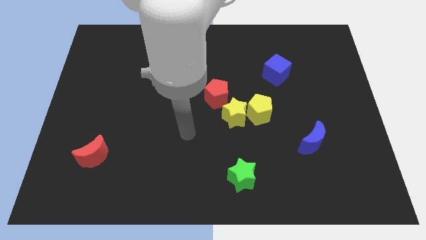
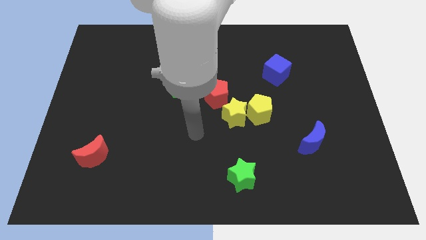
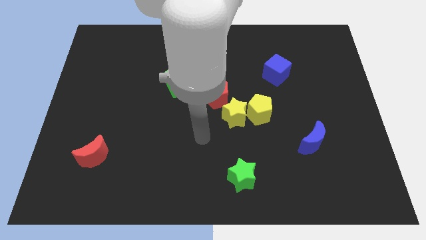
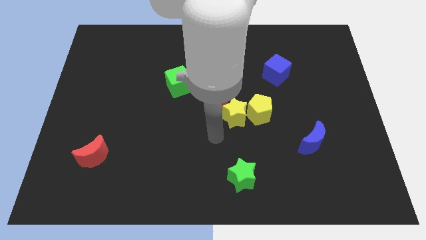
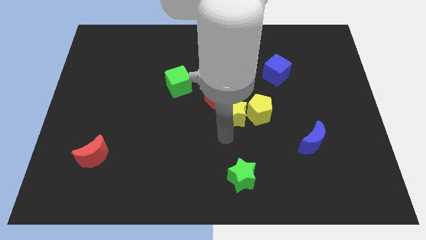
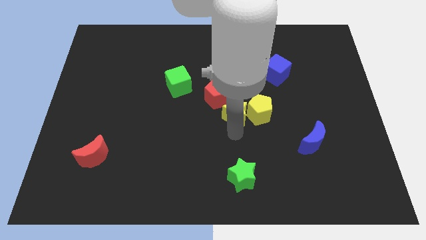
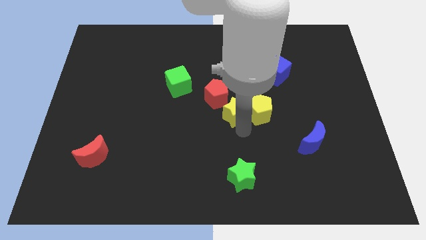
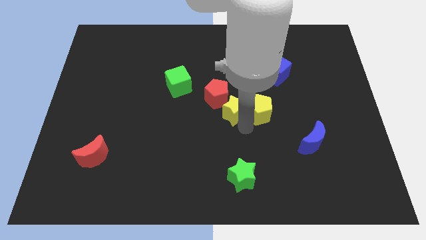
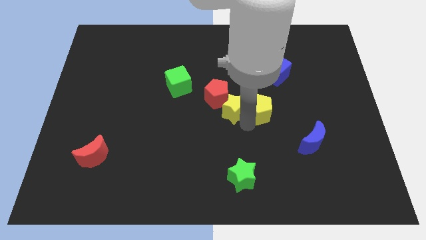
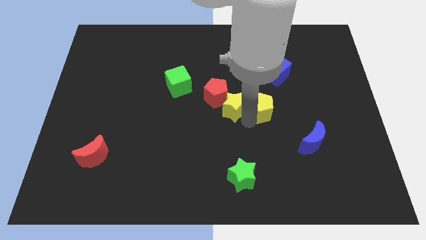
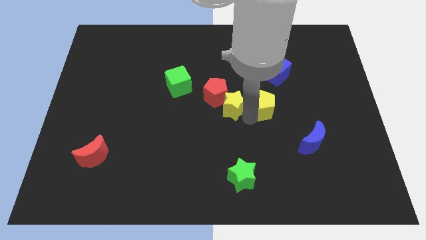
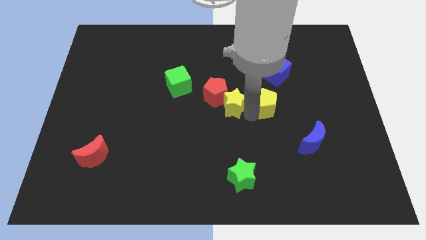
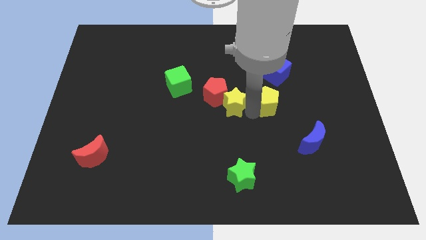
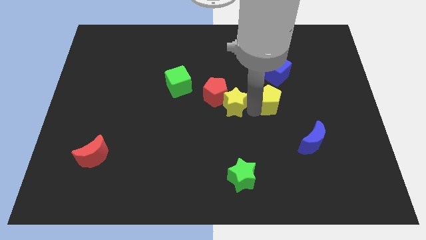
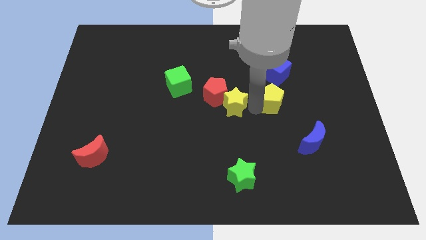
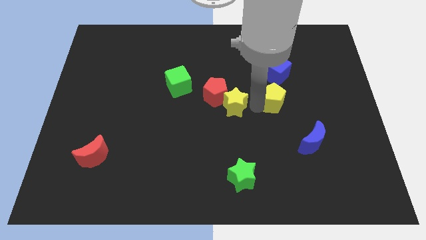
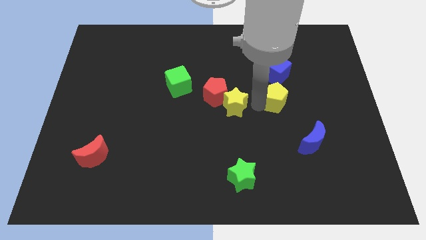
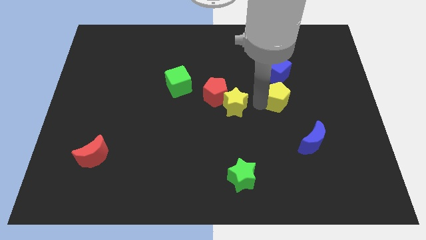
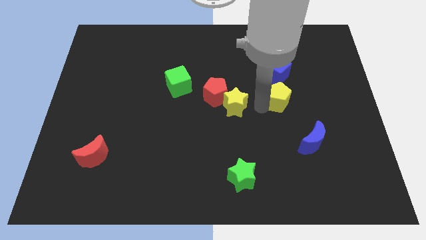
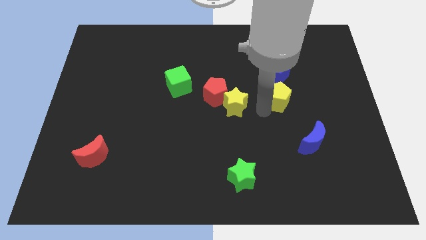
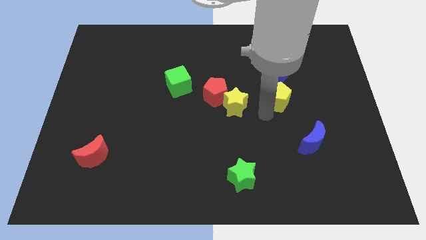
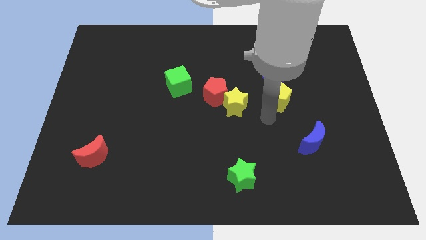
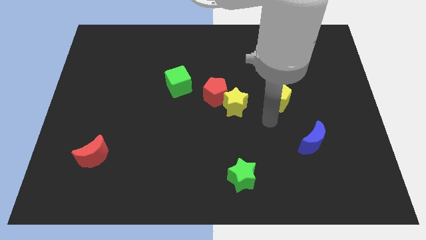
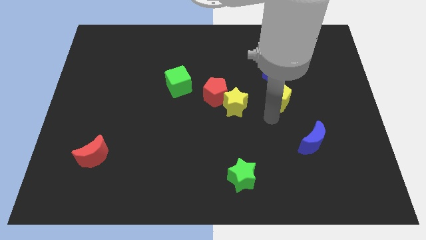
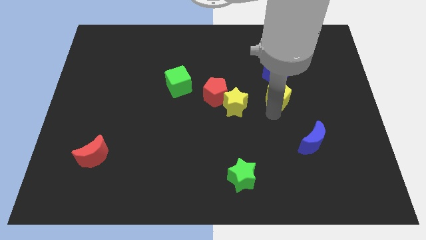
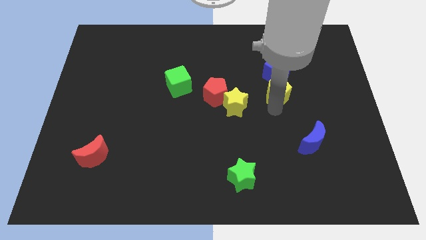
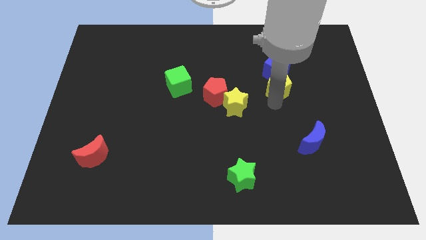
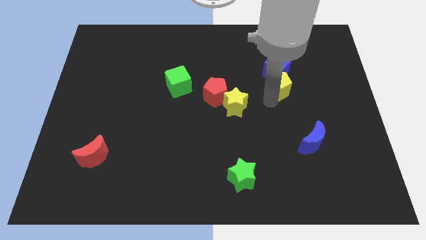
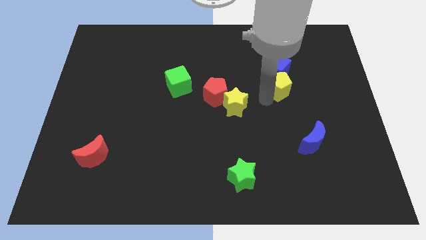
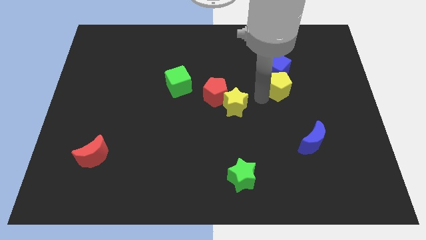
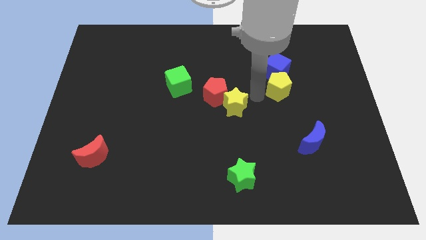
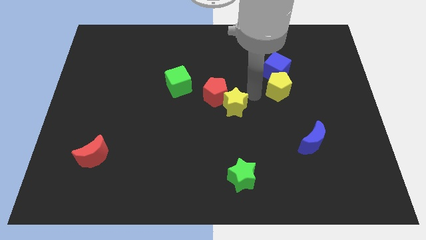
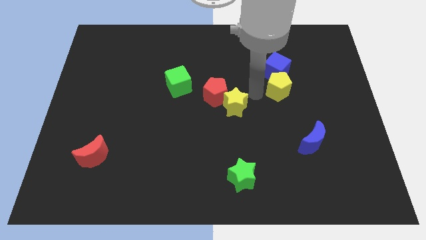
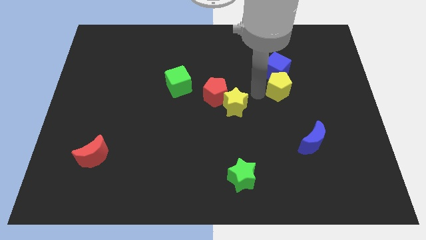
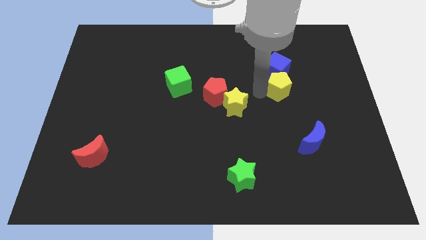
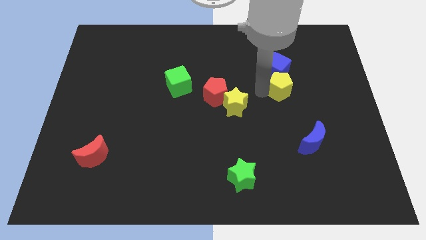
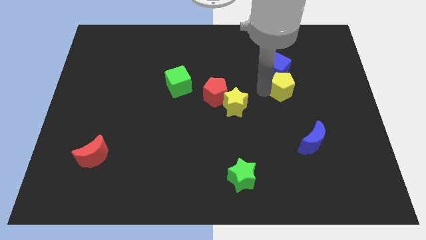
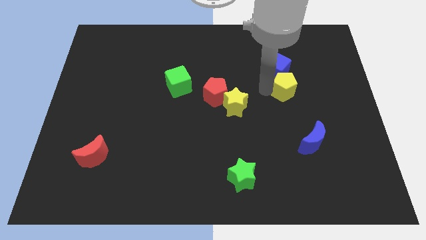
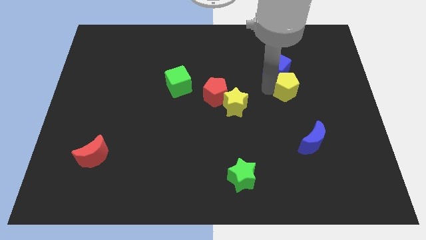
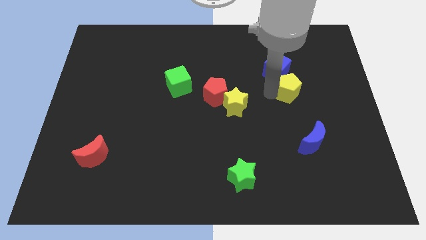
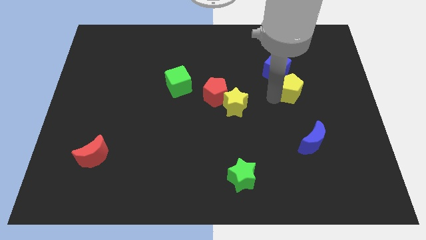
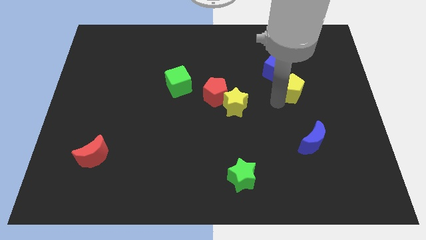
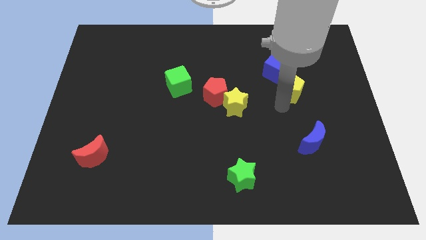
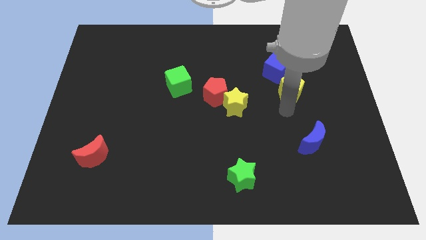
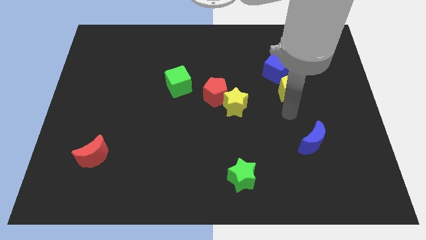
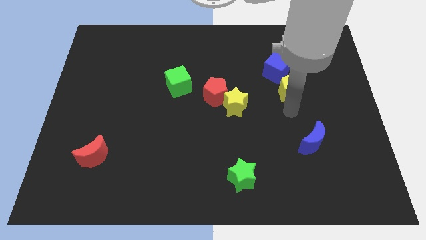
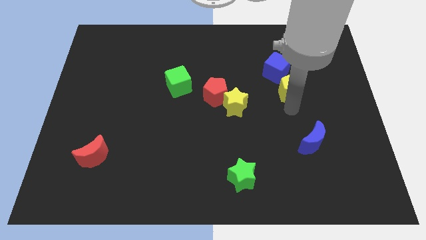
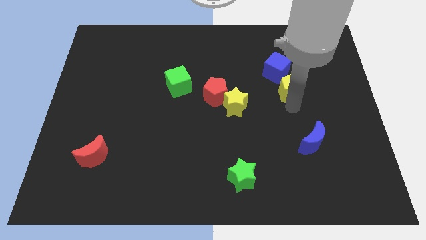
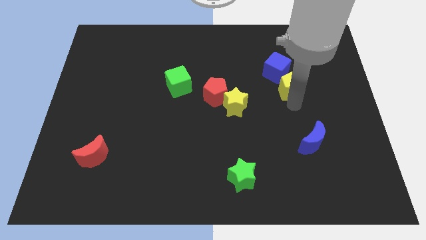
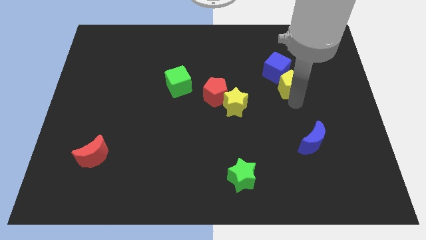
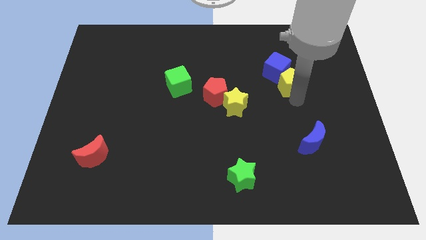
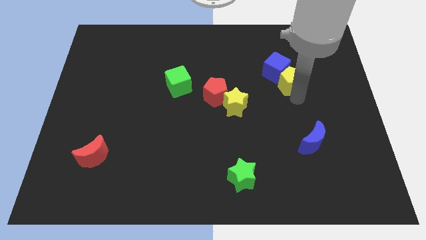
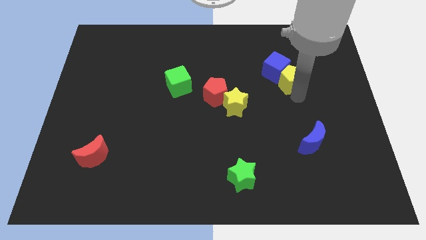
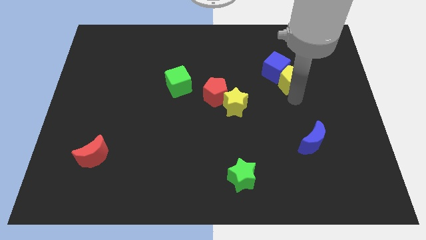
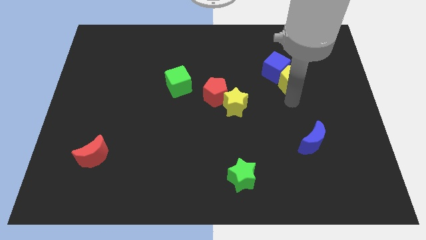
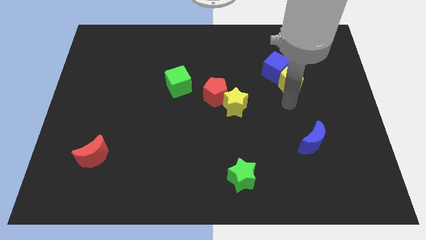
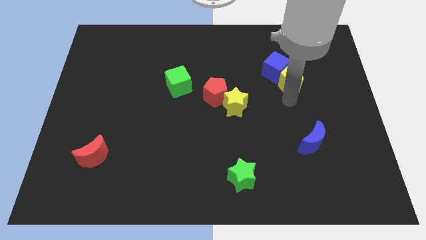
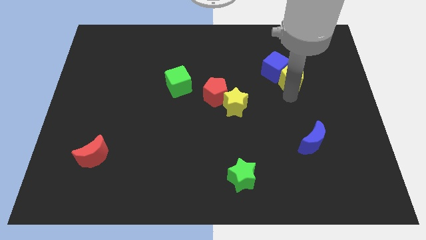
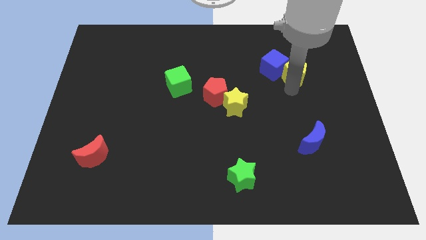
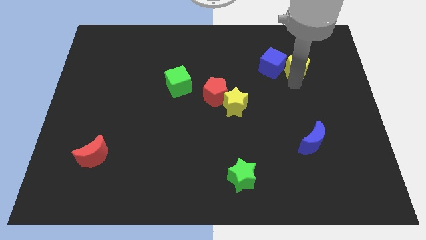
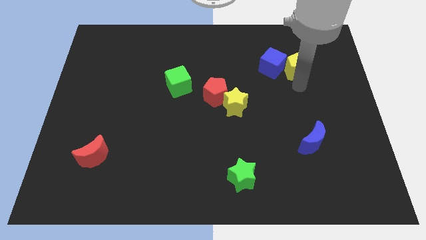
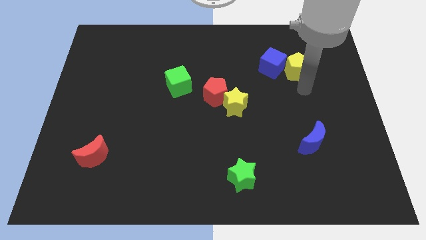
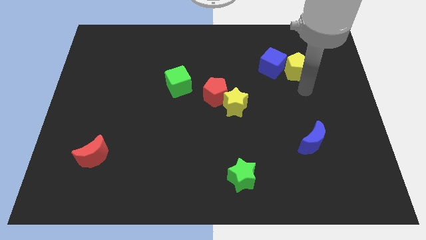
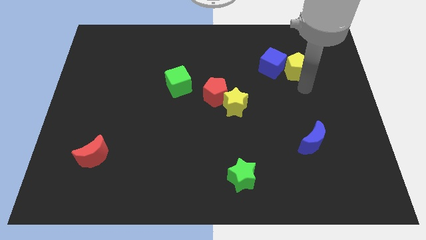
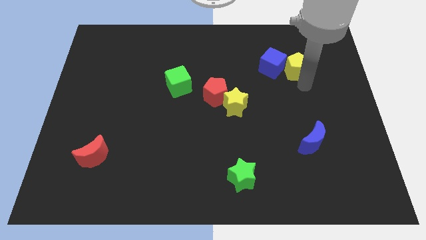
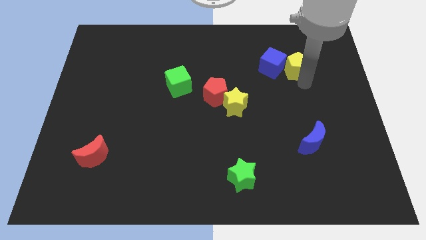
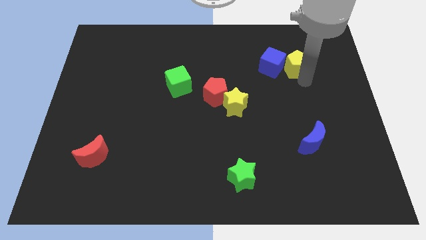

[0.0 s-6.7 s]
push the yellow pentagon diagonally up and to the right of the blue cube

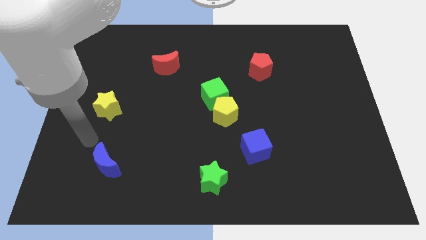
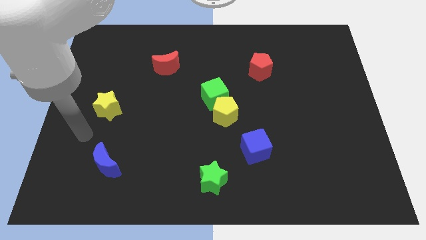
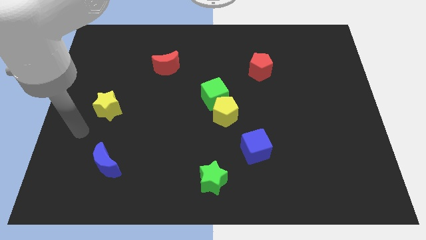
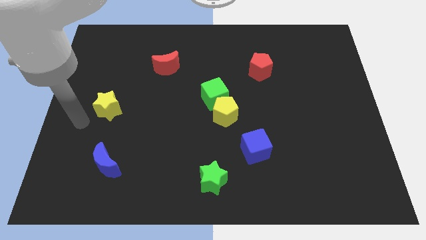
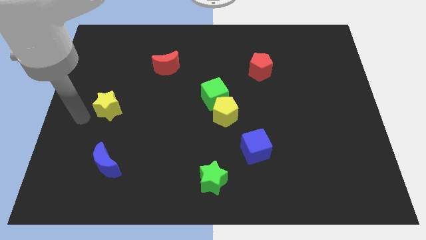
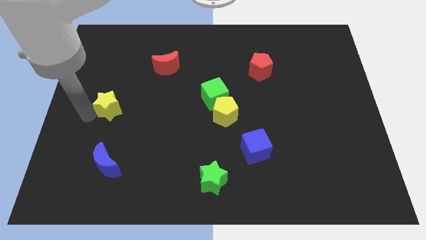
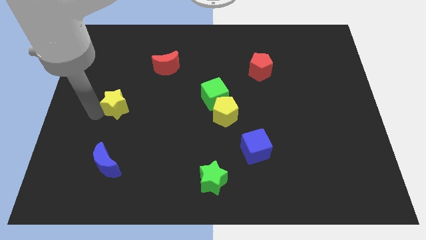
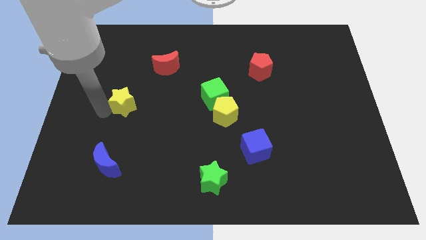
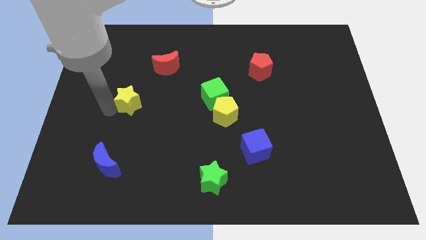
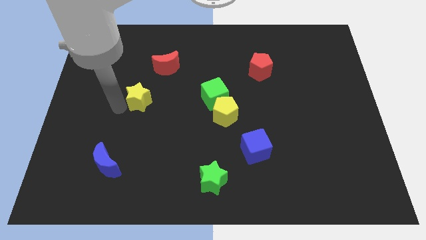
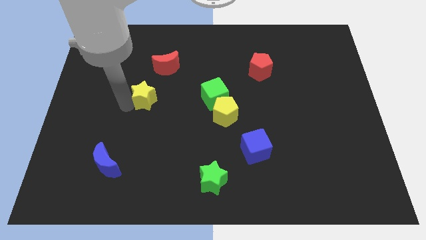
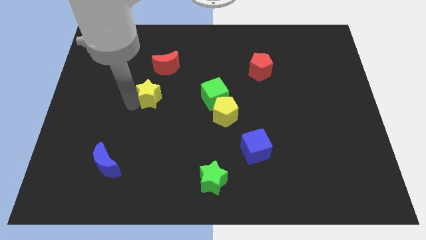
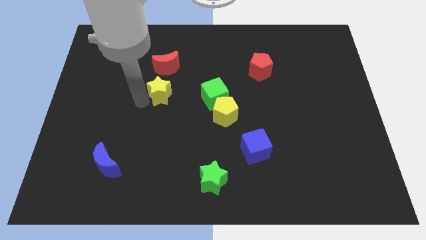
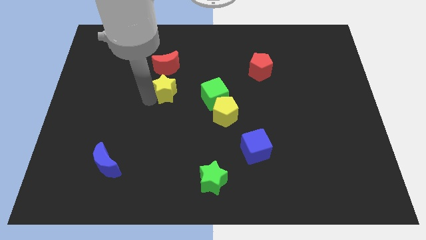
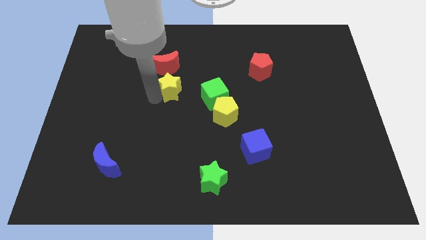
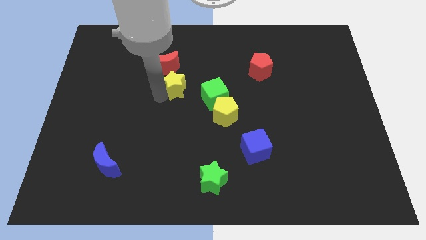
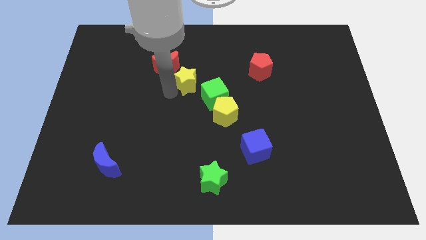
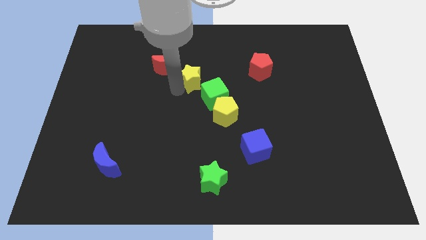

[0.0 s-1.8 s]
move the yellow star just right of the red moon
